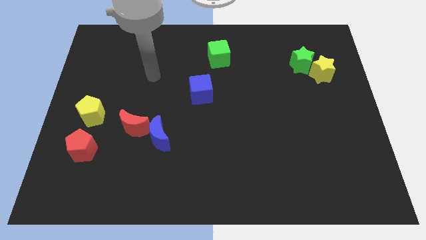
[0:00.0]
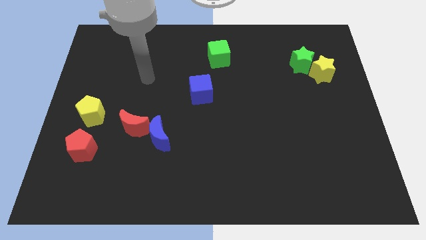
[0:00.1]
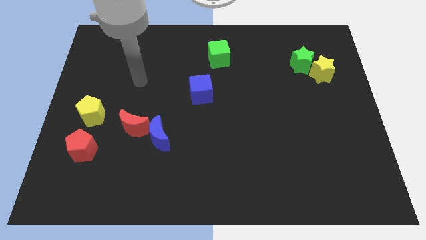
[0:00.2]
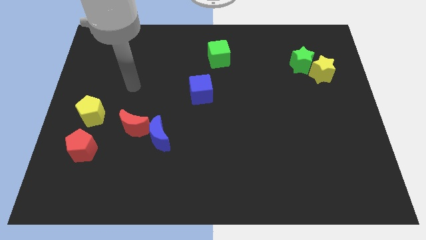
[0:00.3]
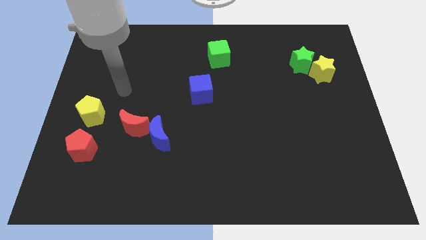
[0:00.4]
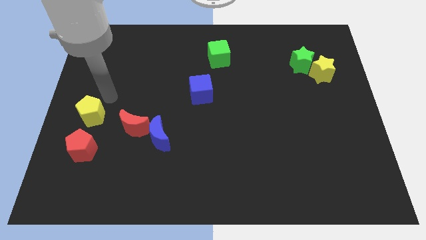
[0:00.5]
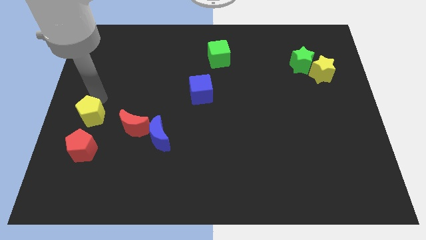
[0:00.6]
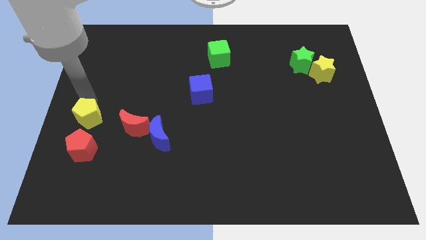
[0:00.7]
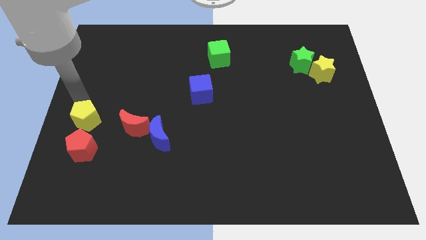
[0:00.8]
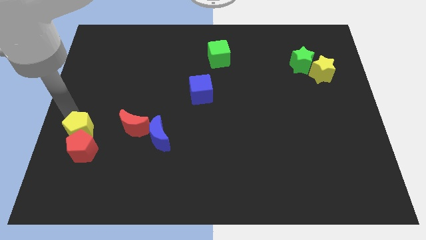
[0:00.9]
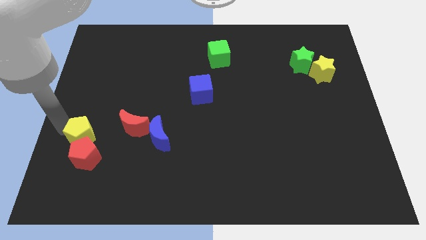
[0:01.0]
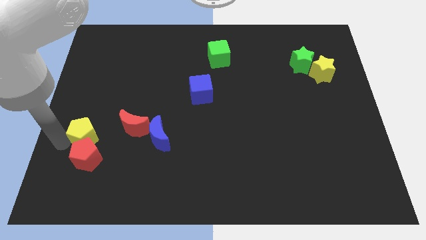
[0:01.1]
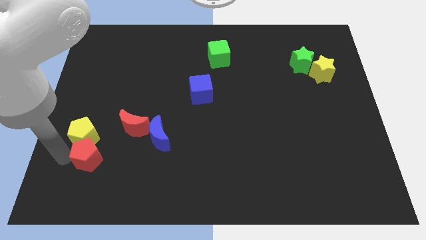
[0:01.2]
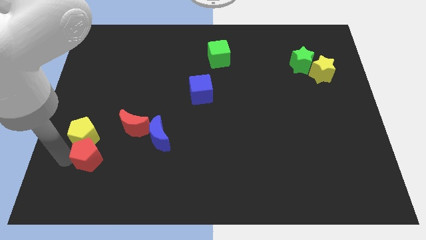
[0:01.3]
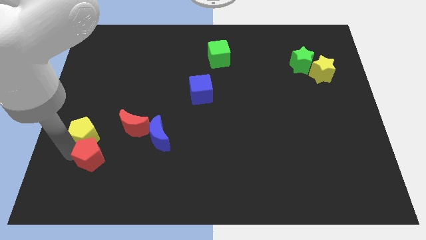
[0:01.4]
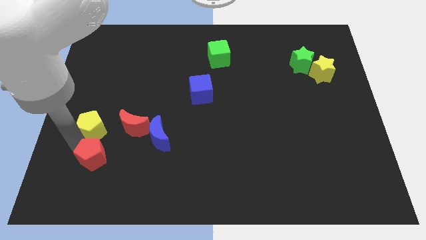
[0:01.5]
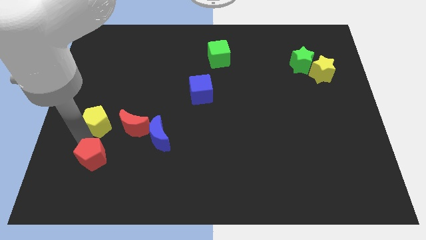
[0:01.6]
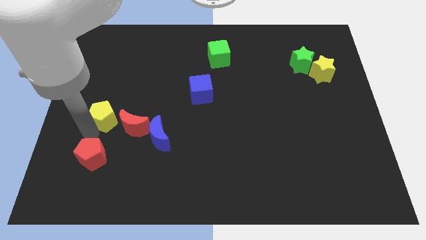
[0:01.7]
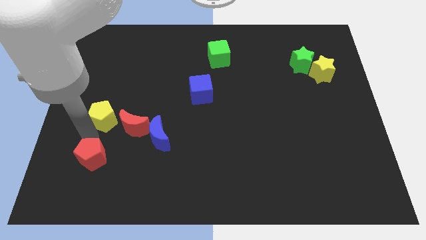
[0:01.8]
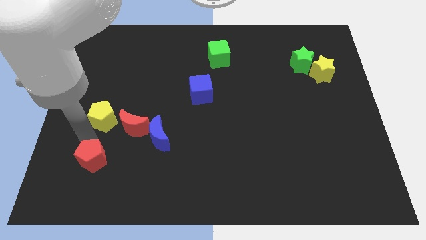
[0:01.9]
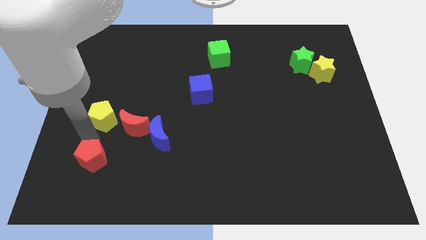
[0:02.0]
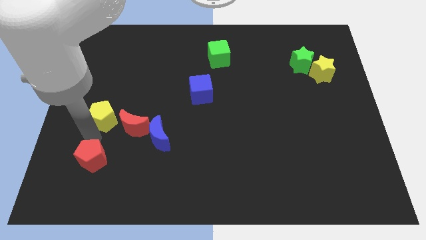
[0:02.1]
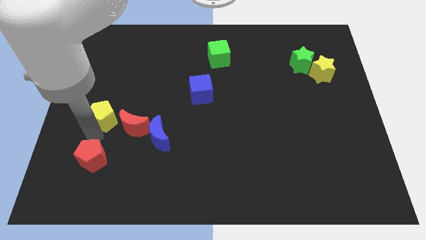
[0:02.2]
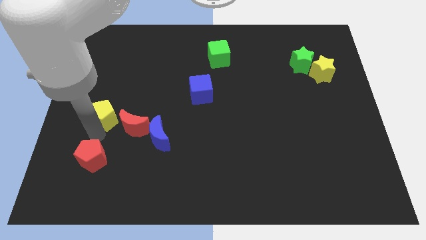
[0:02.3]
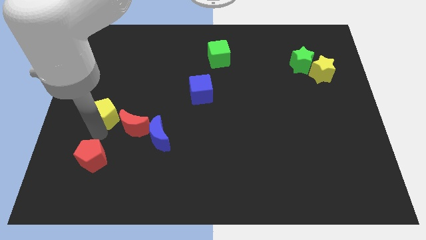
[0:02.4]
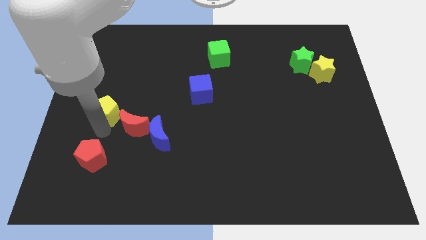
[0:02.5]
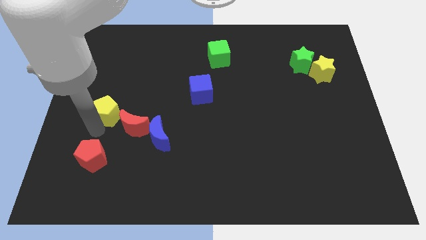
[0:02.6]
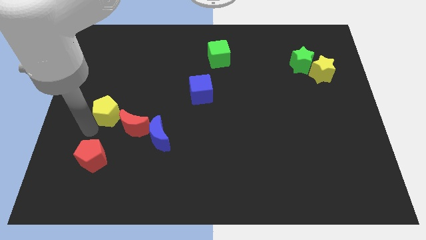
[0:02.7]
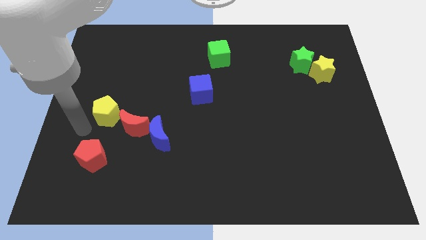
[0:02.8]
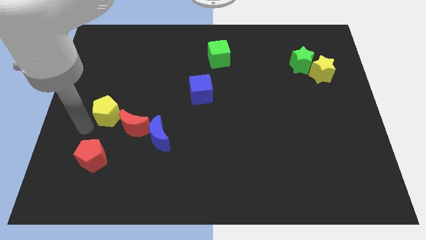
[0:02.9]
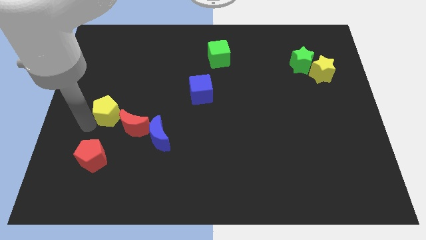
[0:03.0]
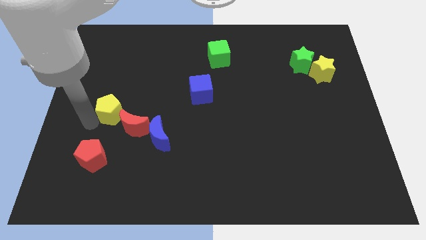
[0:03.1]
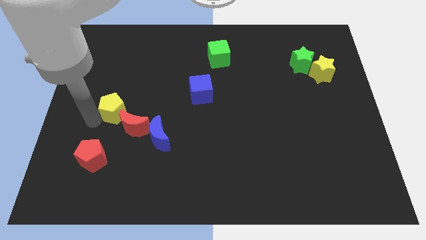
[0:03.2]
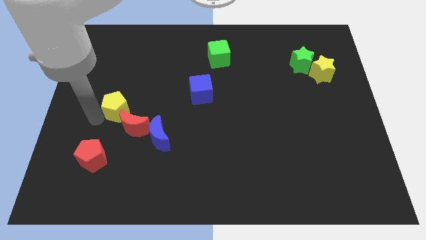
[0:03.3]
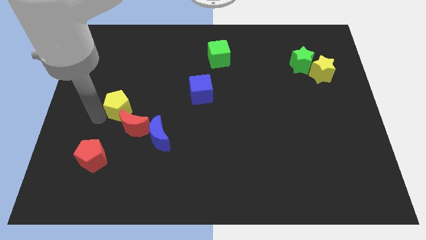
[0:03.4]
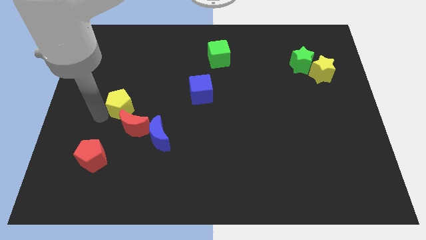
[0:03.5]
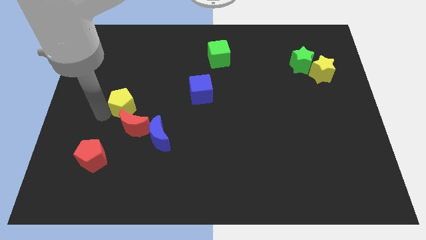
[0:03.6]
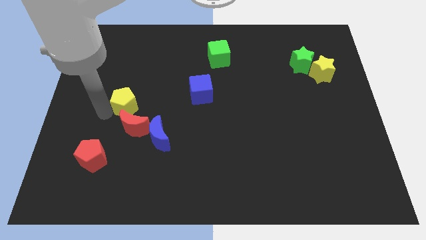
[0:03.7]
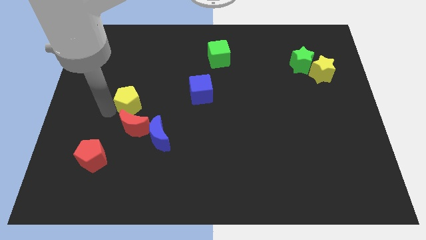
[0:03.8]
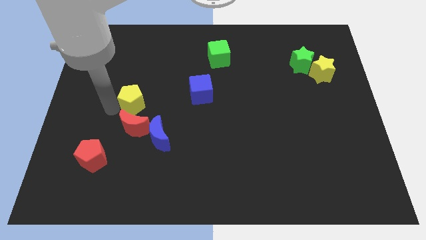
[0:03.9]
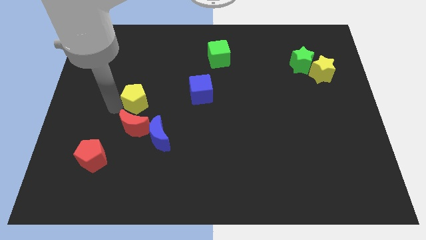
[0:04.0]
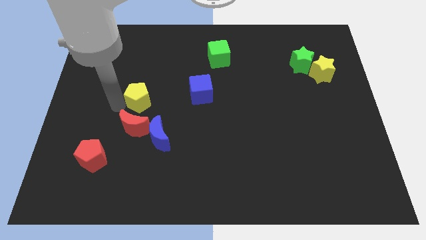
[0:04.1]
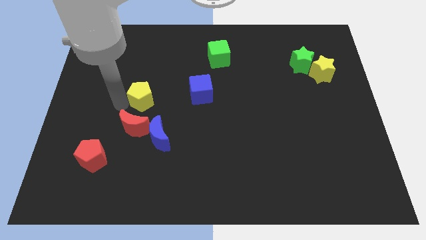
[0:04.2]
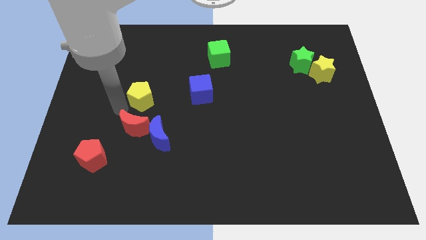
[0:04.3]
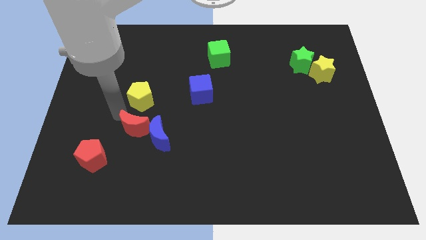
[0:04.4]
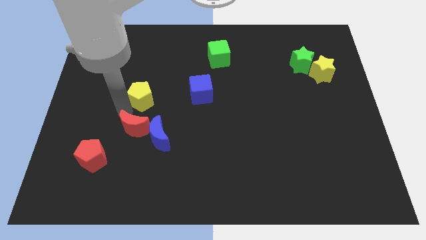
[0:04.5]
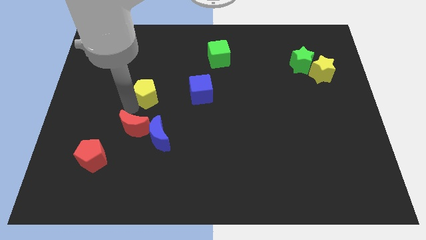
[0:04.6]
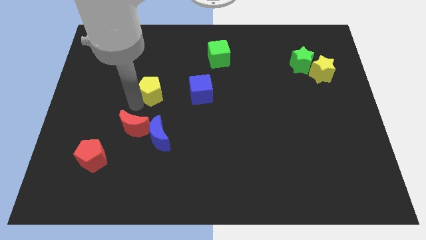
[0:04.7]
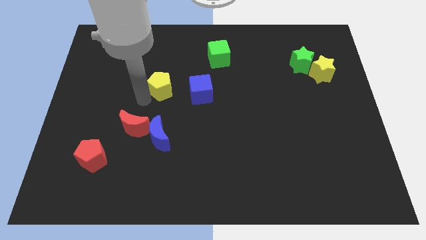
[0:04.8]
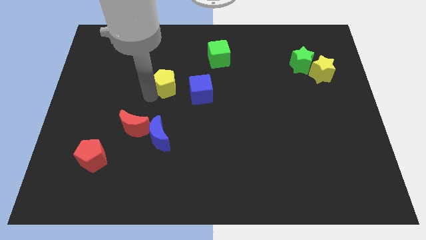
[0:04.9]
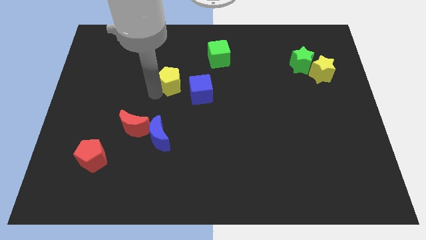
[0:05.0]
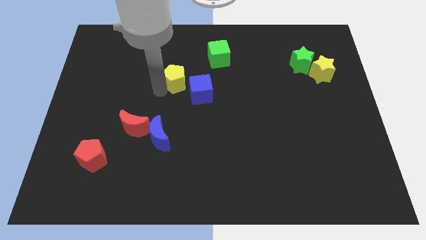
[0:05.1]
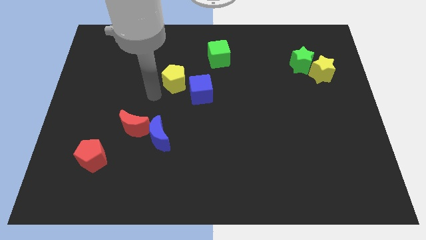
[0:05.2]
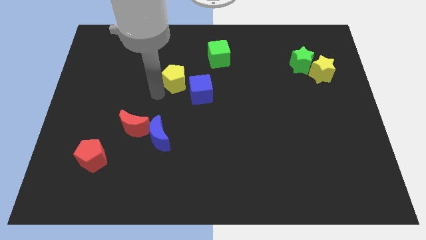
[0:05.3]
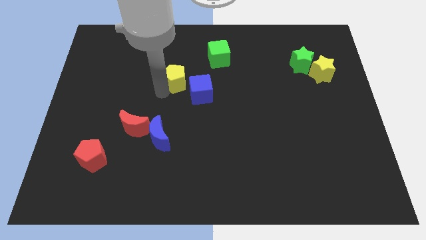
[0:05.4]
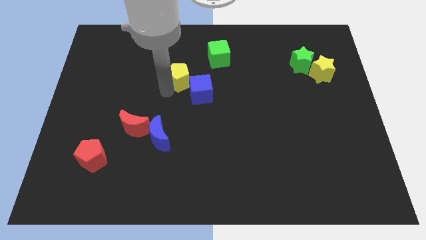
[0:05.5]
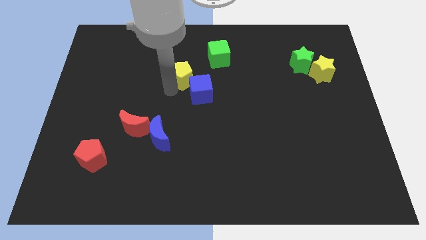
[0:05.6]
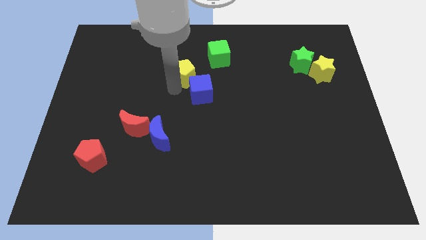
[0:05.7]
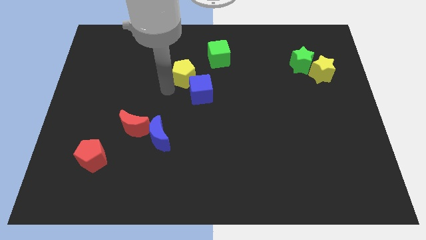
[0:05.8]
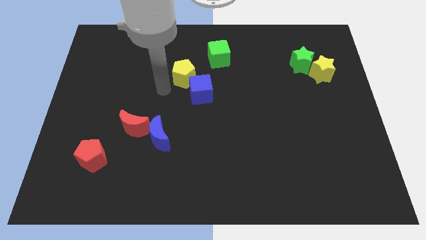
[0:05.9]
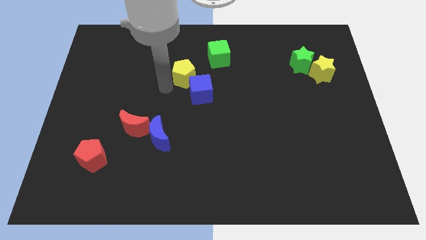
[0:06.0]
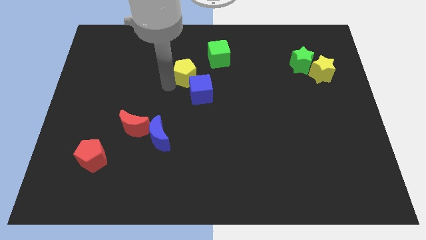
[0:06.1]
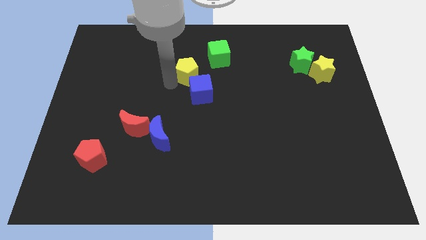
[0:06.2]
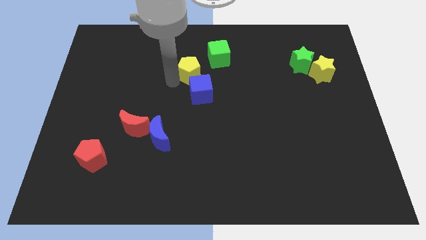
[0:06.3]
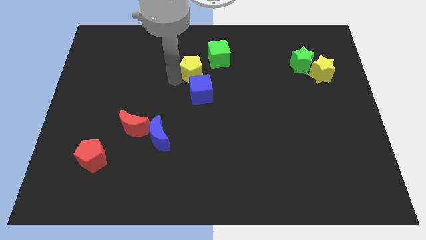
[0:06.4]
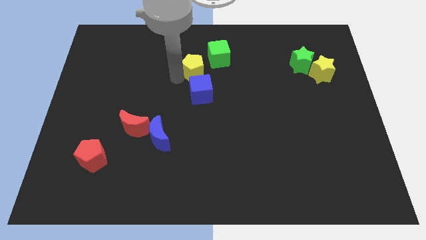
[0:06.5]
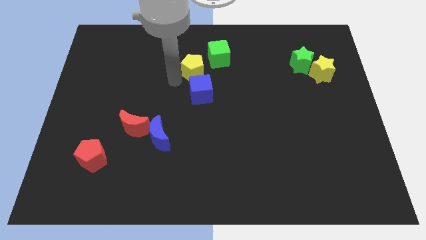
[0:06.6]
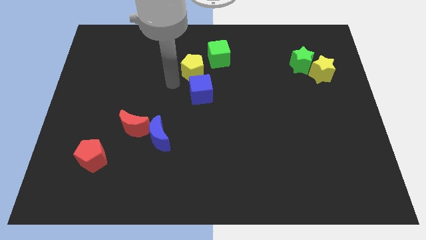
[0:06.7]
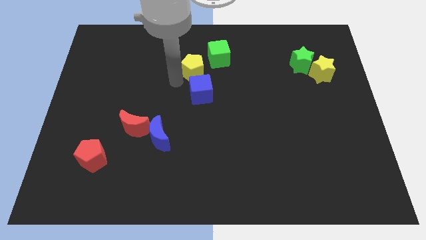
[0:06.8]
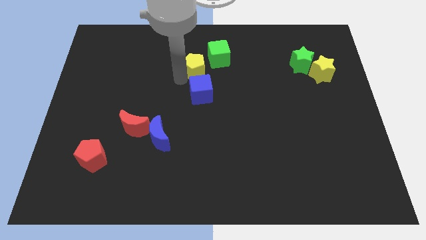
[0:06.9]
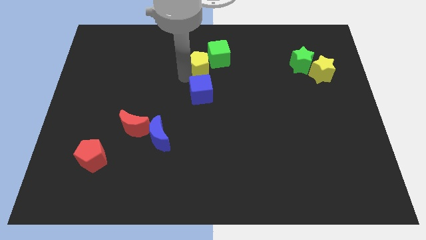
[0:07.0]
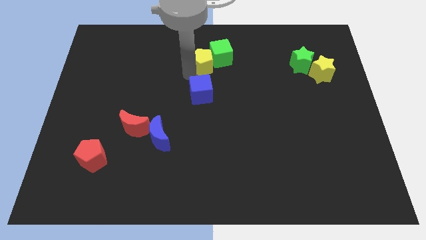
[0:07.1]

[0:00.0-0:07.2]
slide the yellow pentagon to the green cube

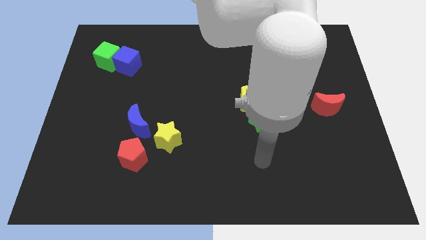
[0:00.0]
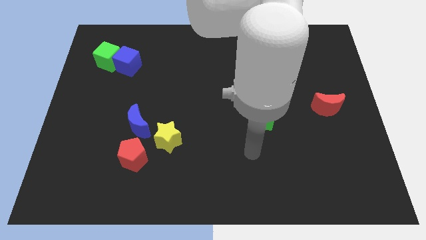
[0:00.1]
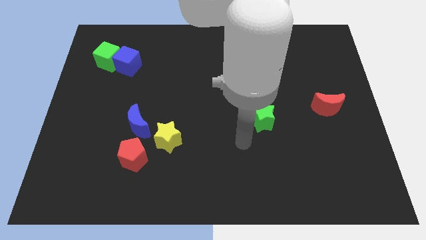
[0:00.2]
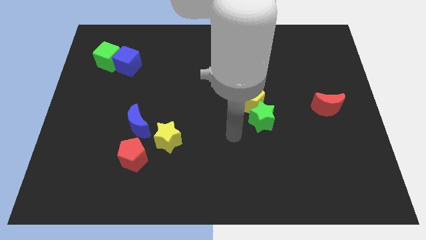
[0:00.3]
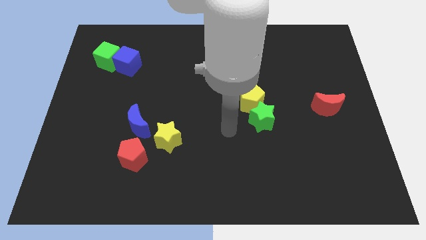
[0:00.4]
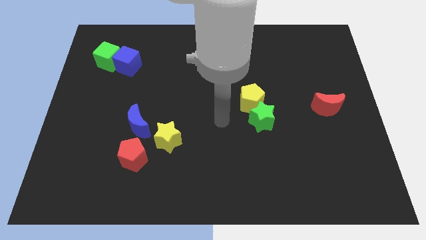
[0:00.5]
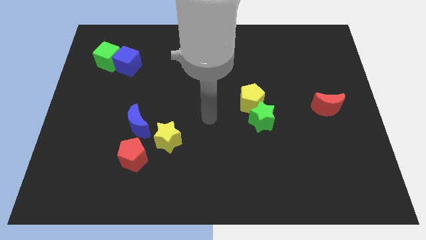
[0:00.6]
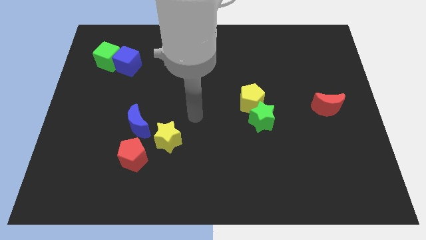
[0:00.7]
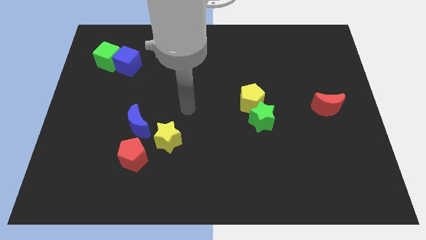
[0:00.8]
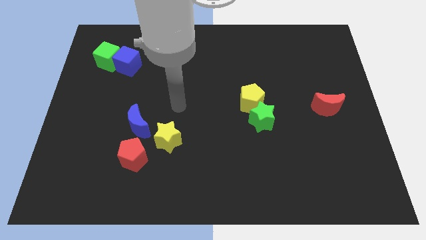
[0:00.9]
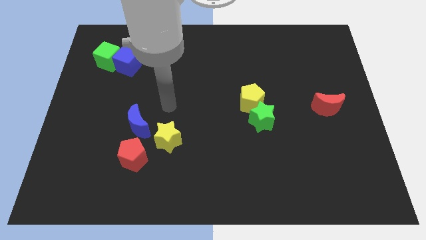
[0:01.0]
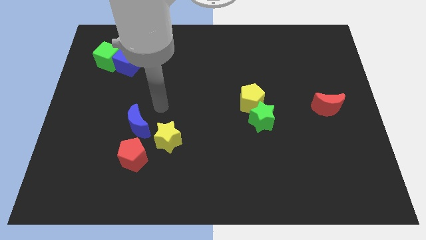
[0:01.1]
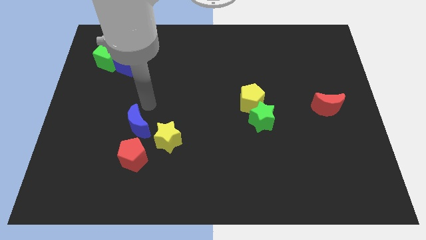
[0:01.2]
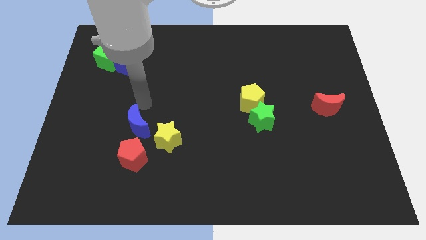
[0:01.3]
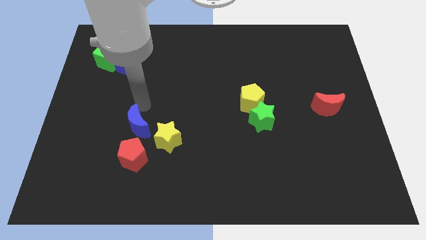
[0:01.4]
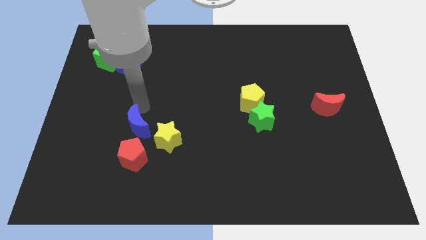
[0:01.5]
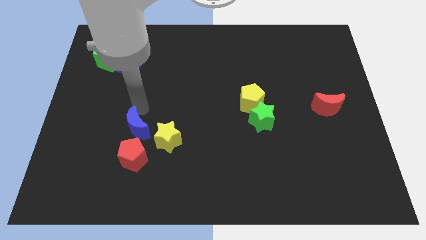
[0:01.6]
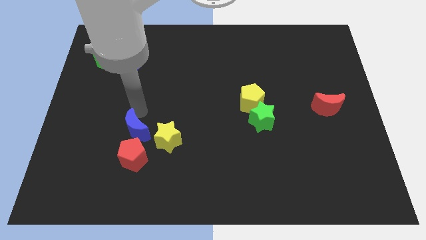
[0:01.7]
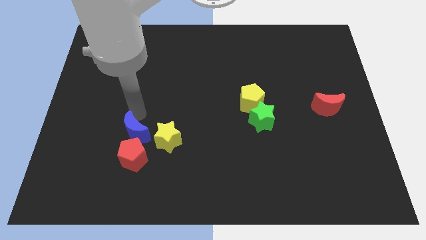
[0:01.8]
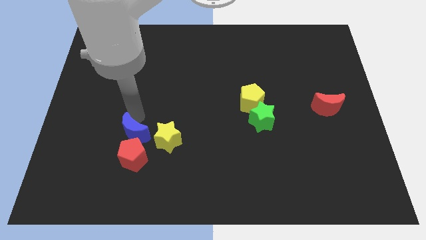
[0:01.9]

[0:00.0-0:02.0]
push the blue moon to the red pentagon
